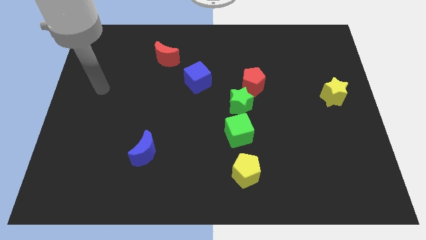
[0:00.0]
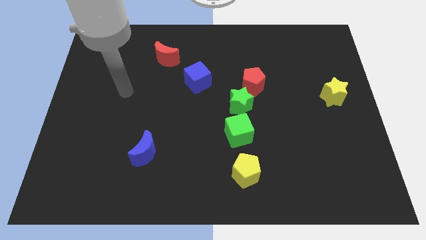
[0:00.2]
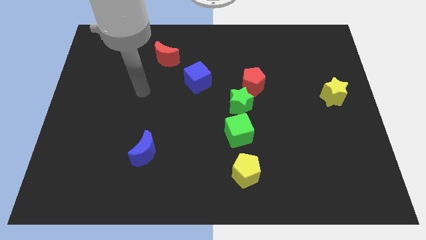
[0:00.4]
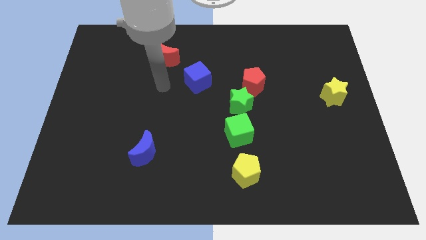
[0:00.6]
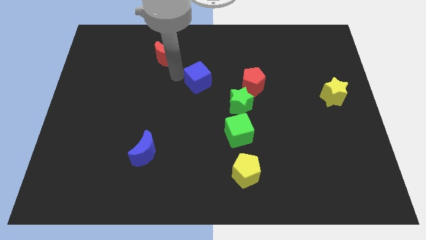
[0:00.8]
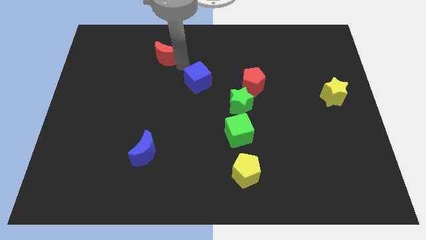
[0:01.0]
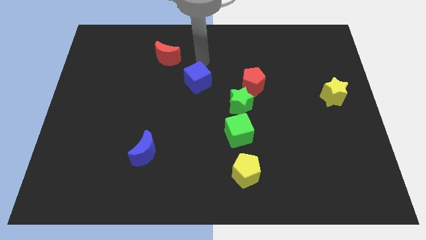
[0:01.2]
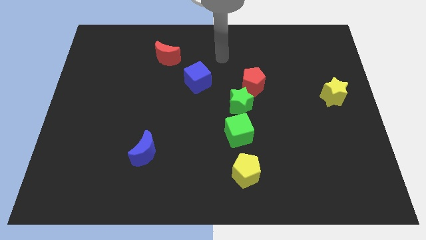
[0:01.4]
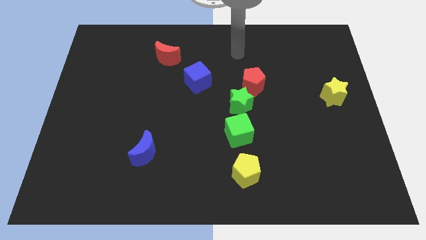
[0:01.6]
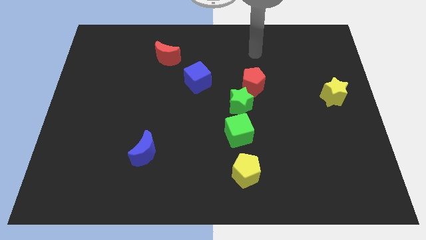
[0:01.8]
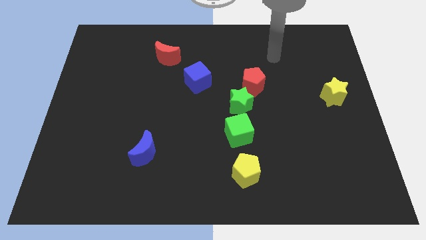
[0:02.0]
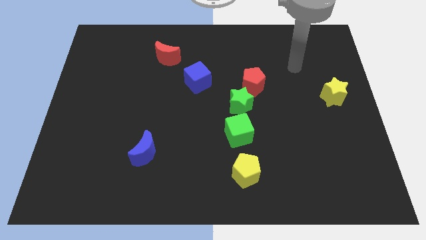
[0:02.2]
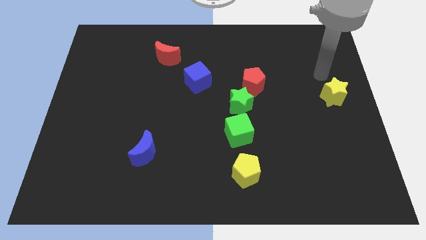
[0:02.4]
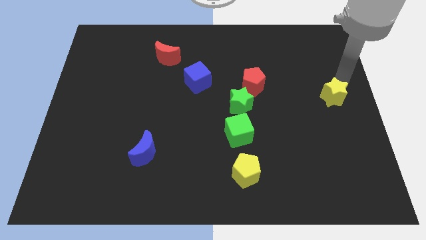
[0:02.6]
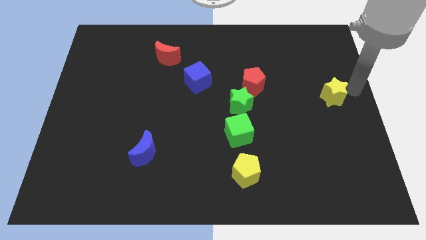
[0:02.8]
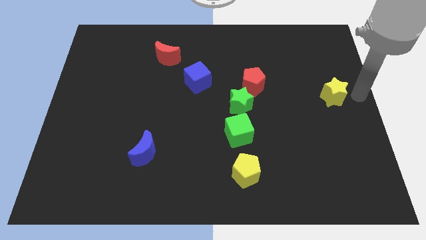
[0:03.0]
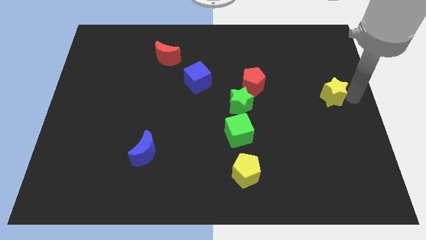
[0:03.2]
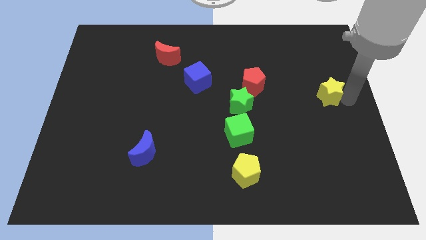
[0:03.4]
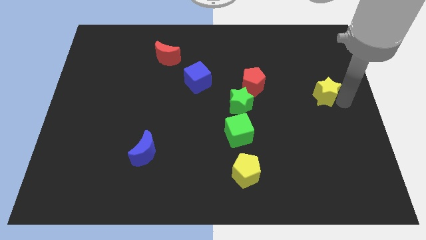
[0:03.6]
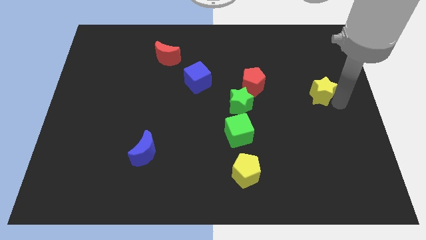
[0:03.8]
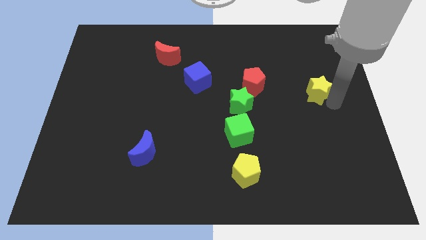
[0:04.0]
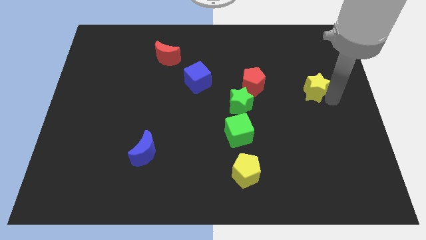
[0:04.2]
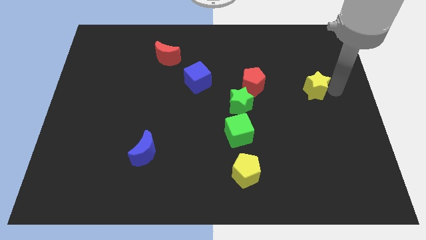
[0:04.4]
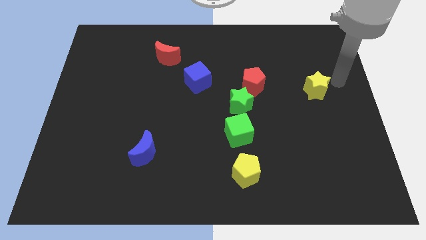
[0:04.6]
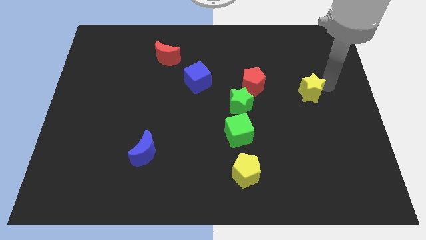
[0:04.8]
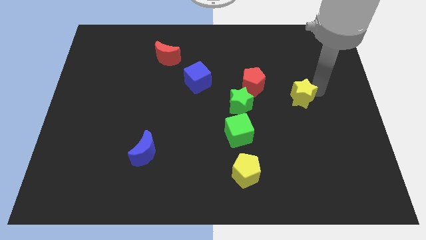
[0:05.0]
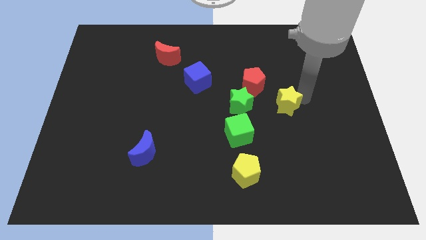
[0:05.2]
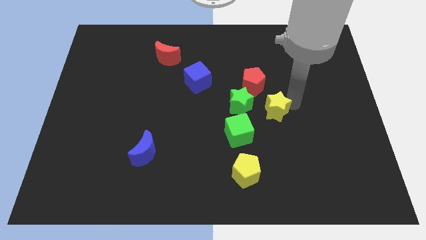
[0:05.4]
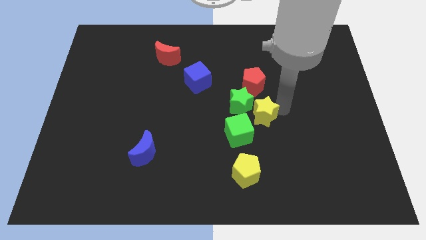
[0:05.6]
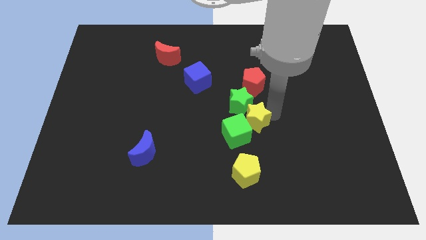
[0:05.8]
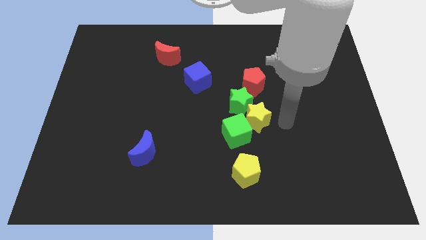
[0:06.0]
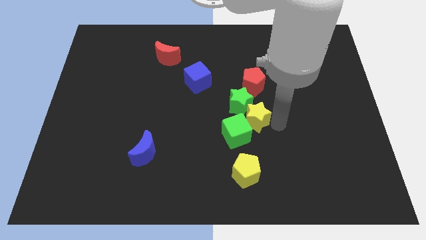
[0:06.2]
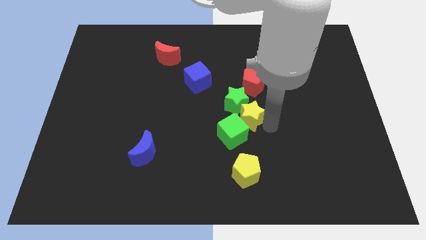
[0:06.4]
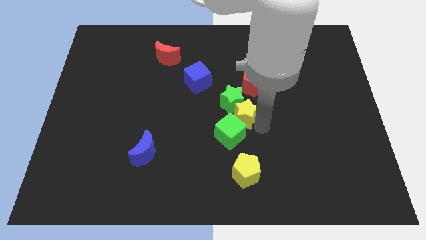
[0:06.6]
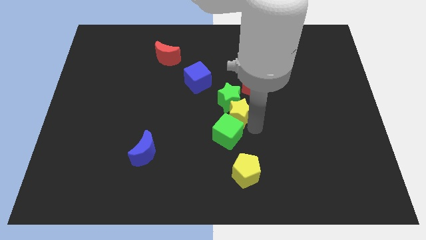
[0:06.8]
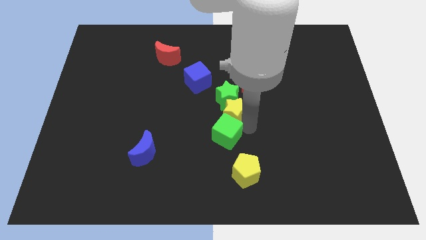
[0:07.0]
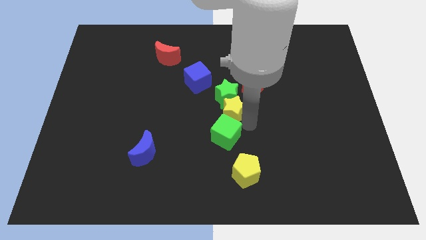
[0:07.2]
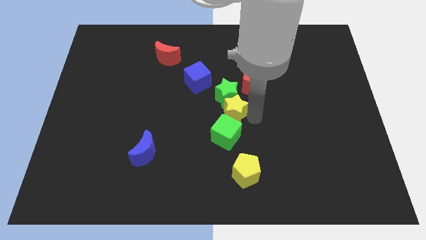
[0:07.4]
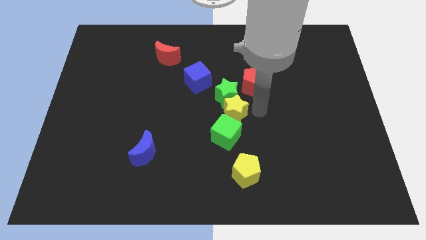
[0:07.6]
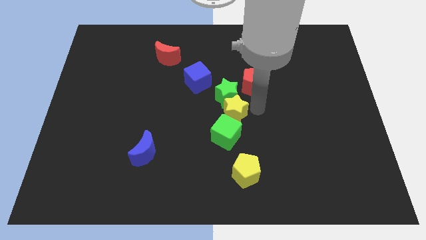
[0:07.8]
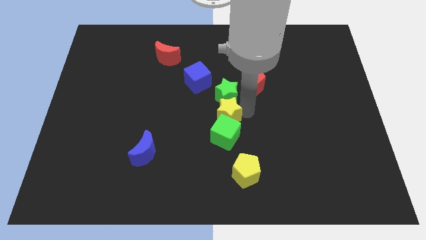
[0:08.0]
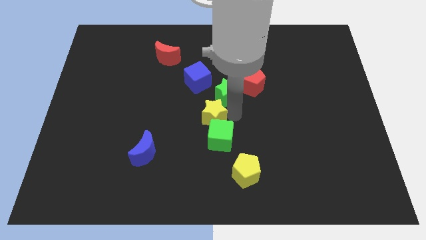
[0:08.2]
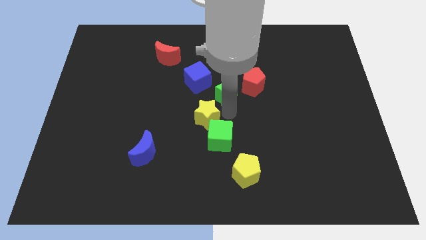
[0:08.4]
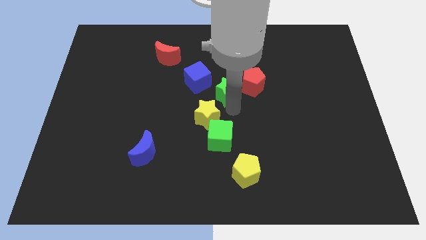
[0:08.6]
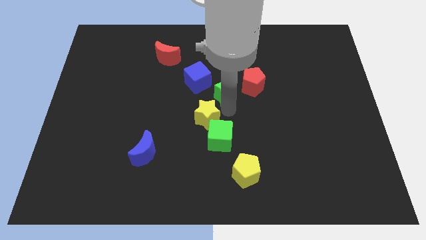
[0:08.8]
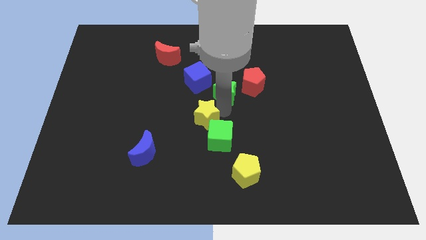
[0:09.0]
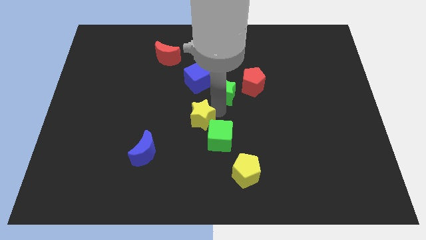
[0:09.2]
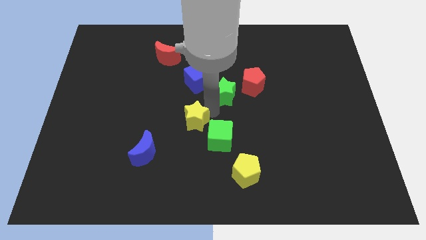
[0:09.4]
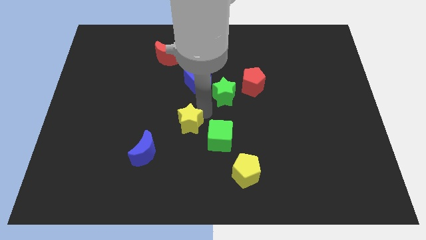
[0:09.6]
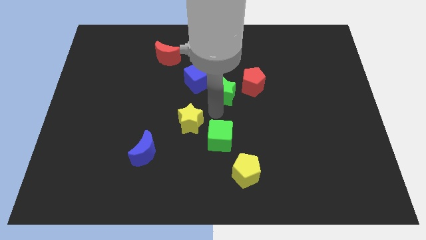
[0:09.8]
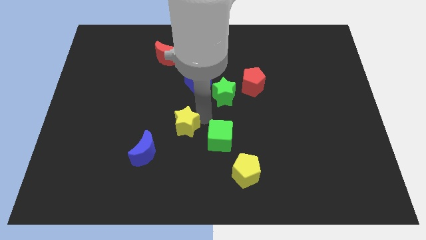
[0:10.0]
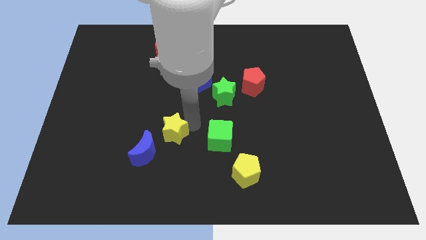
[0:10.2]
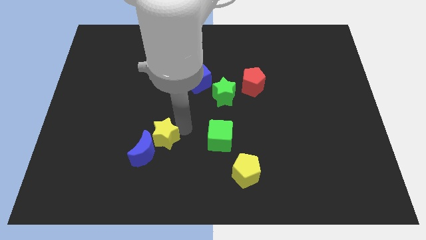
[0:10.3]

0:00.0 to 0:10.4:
push the yellow star towards the blue moon

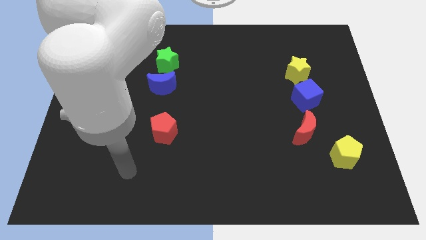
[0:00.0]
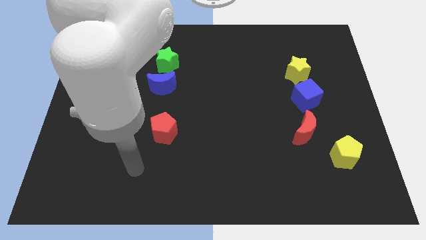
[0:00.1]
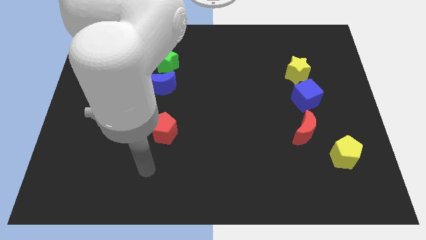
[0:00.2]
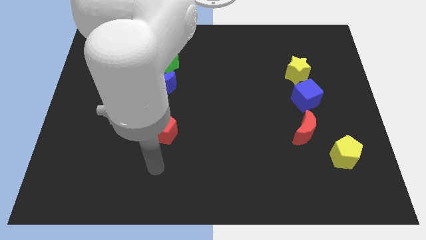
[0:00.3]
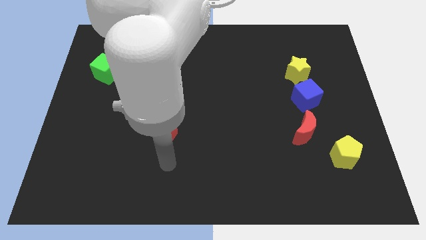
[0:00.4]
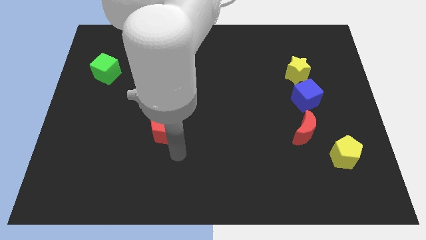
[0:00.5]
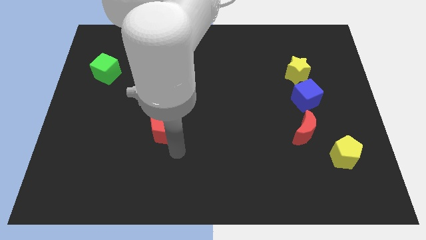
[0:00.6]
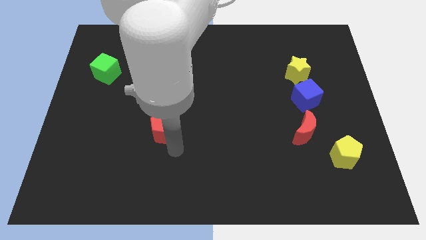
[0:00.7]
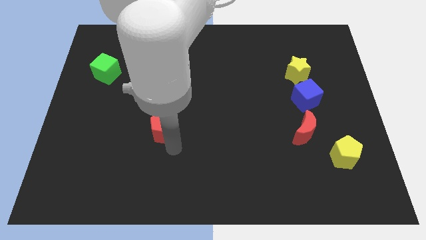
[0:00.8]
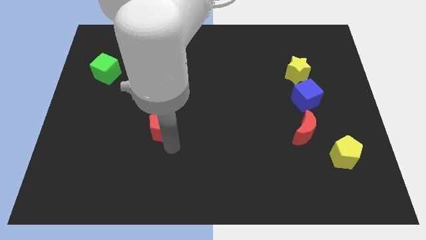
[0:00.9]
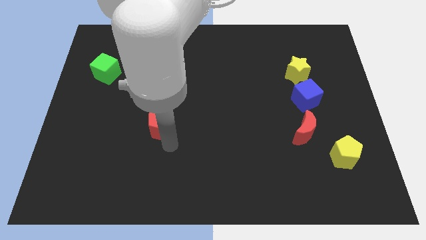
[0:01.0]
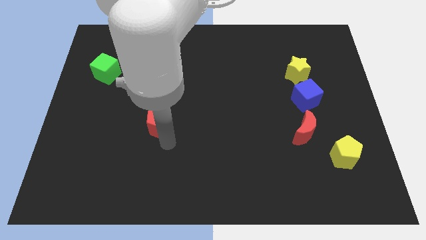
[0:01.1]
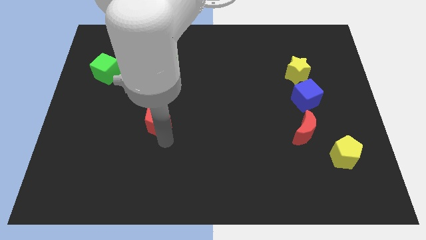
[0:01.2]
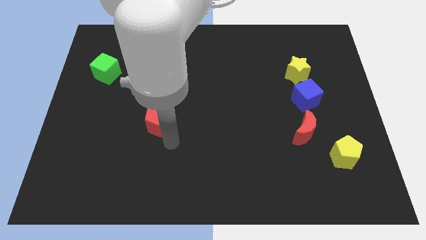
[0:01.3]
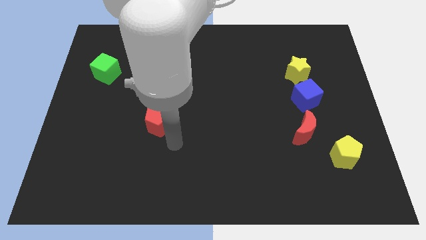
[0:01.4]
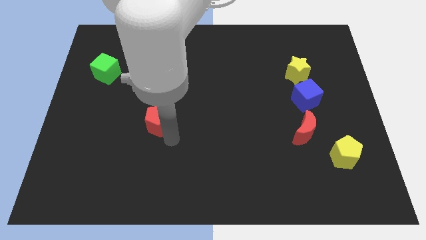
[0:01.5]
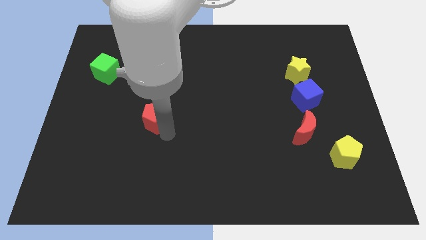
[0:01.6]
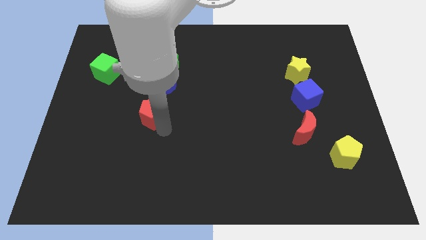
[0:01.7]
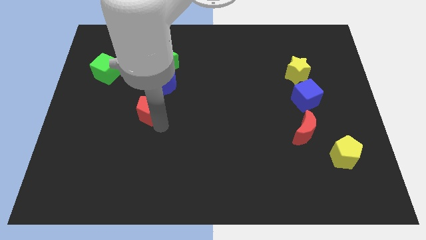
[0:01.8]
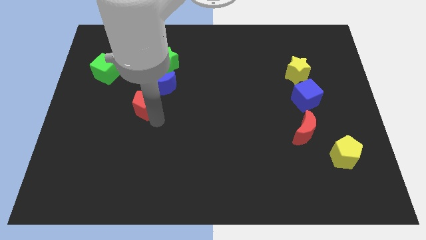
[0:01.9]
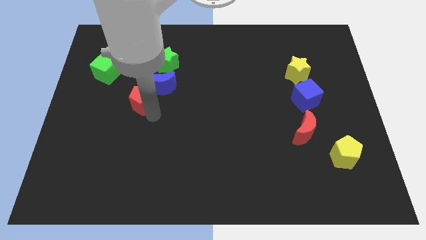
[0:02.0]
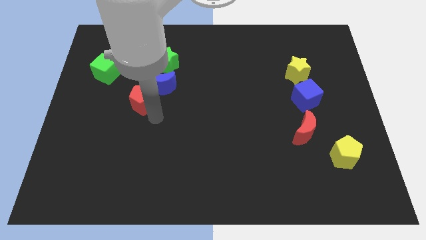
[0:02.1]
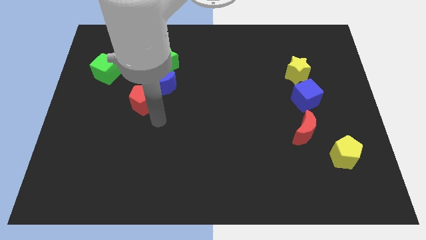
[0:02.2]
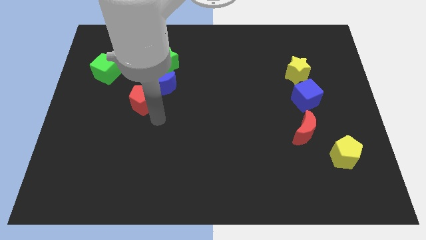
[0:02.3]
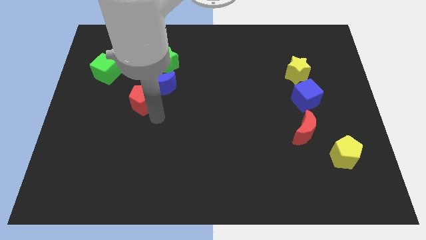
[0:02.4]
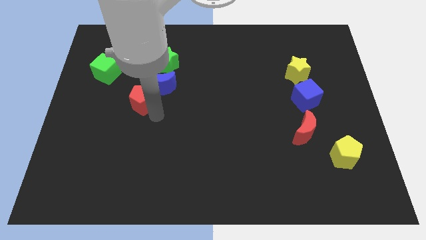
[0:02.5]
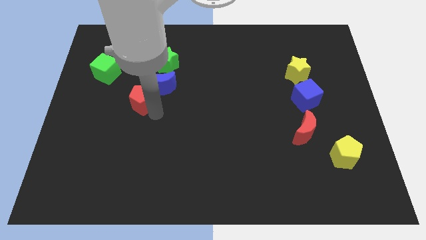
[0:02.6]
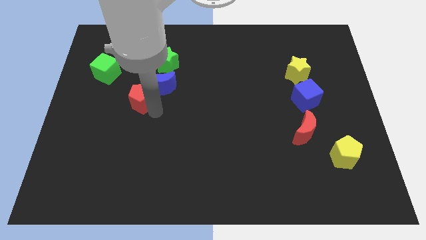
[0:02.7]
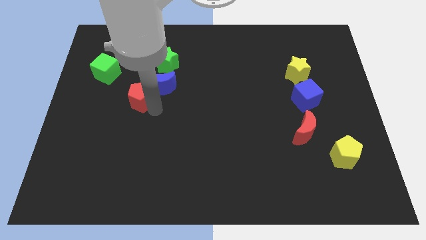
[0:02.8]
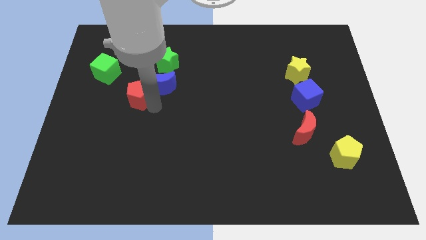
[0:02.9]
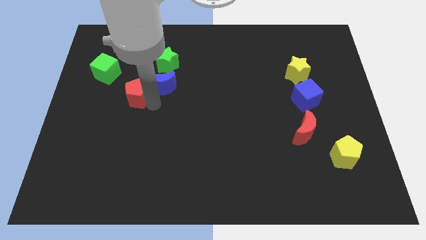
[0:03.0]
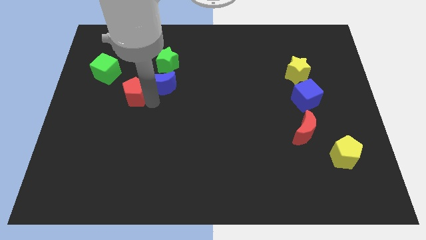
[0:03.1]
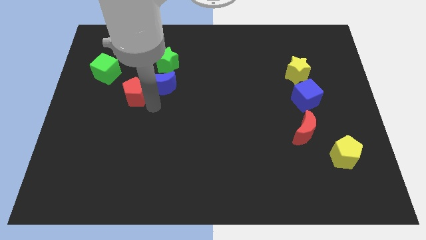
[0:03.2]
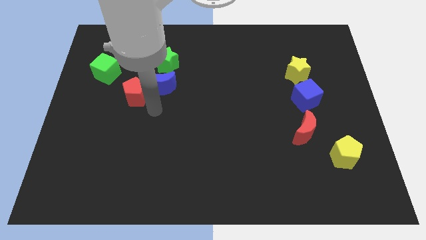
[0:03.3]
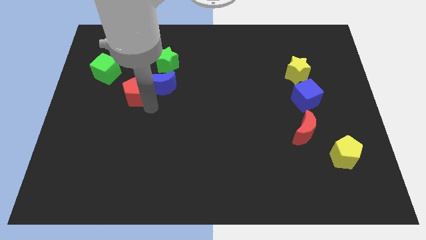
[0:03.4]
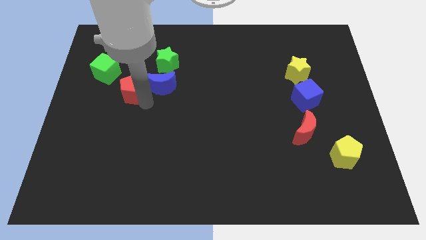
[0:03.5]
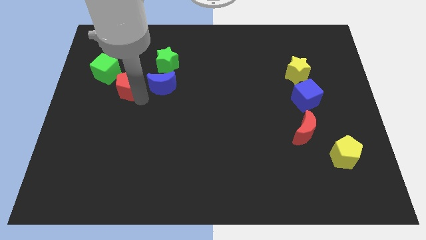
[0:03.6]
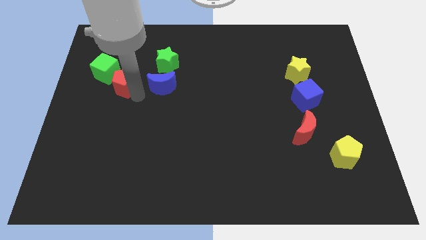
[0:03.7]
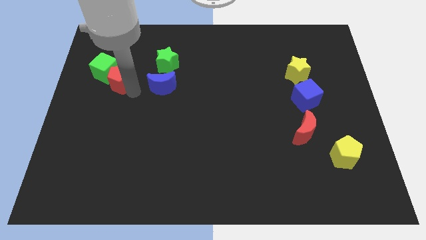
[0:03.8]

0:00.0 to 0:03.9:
slide the red pentagon towards the green cube
